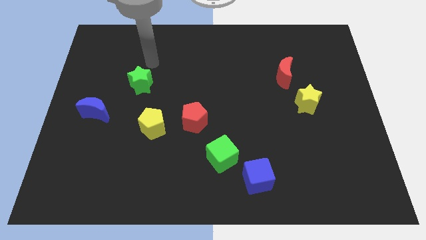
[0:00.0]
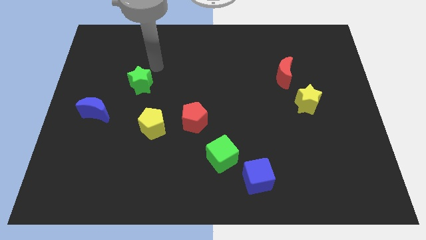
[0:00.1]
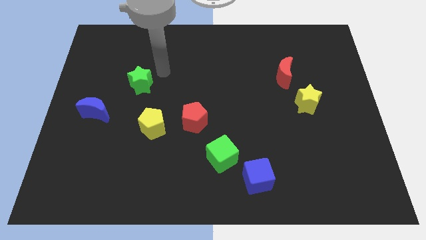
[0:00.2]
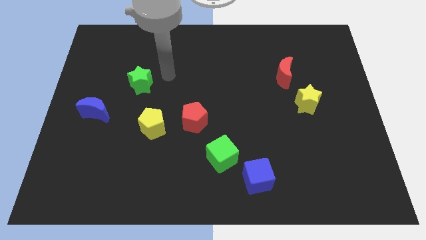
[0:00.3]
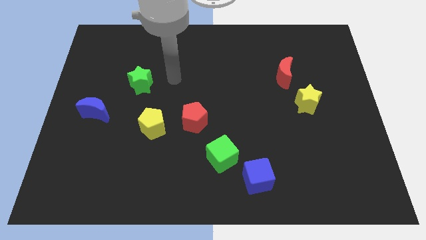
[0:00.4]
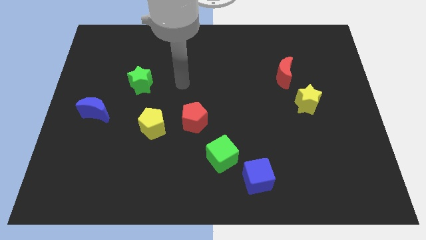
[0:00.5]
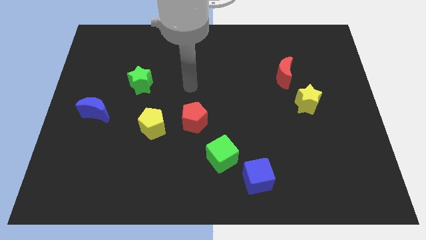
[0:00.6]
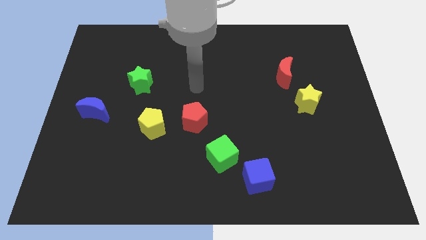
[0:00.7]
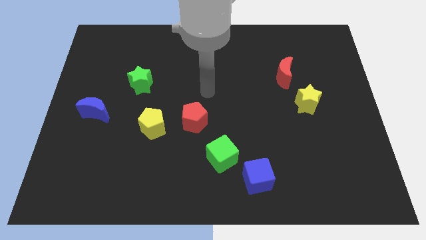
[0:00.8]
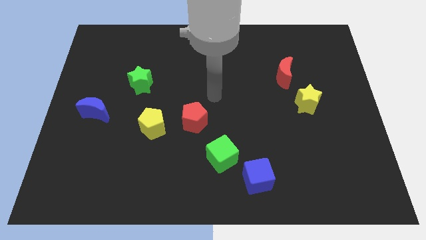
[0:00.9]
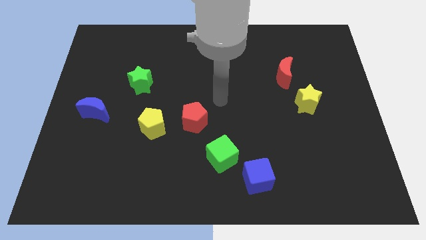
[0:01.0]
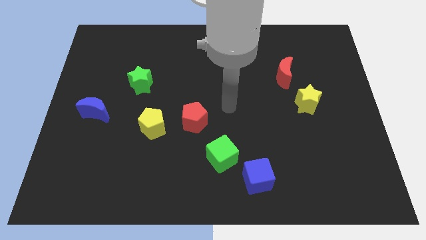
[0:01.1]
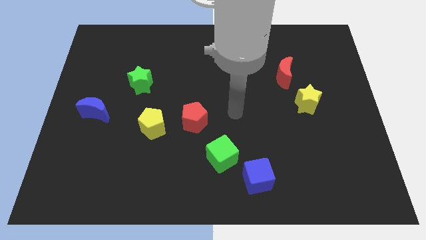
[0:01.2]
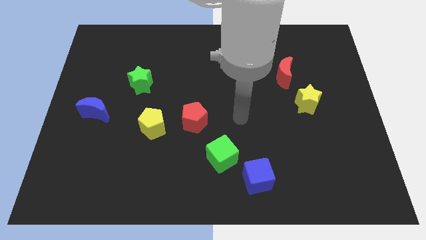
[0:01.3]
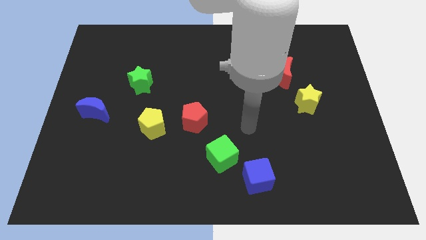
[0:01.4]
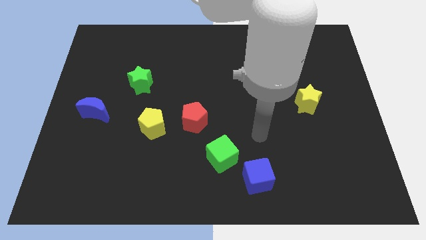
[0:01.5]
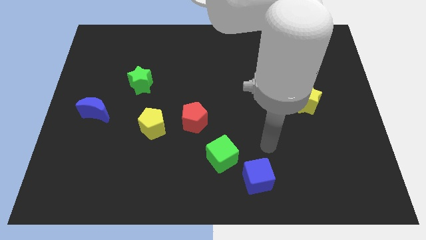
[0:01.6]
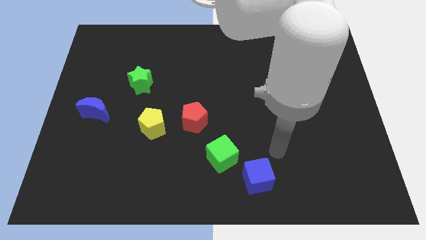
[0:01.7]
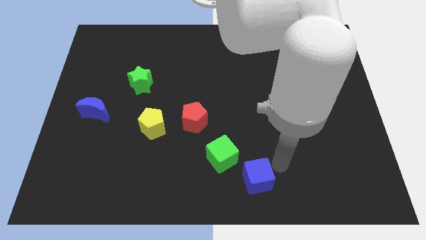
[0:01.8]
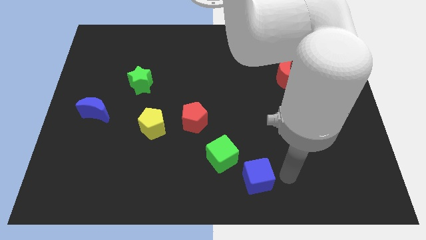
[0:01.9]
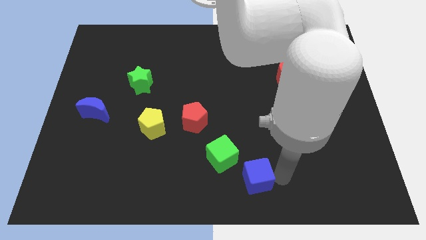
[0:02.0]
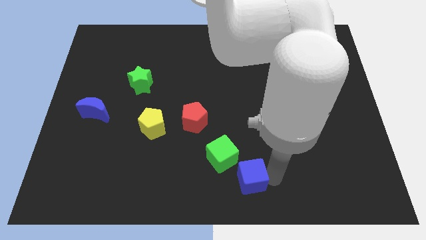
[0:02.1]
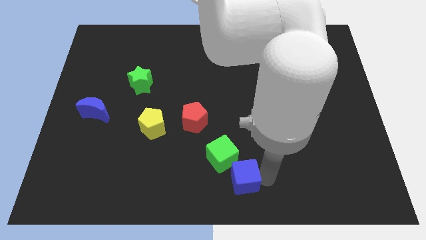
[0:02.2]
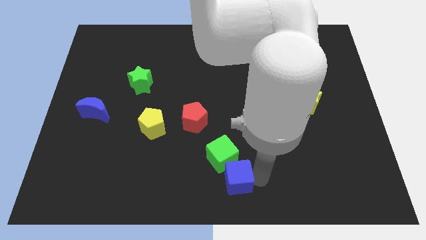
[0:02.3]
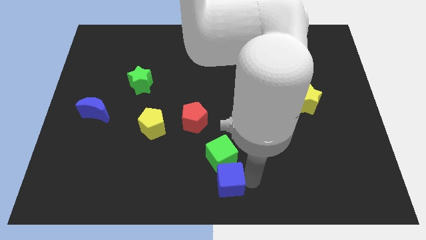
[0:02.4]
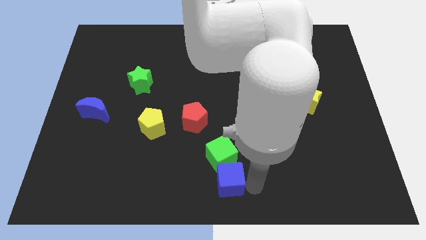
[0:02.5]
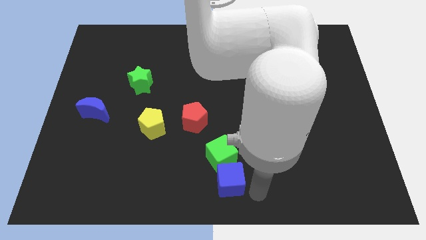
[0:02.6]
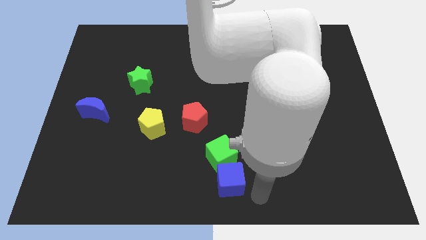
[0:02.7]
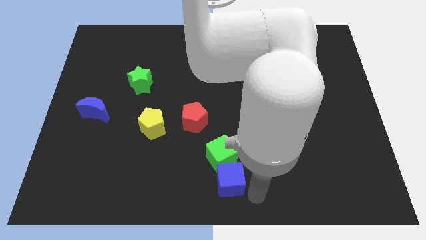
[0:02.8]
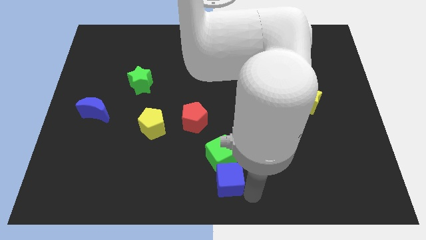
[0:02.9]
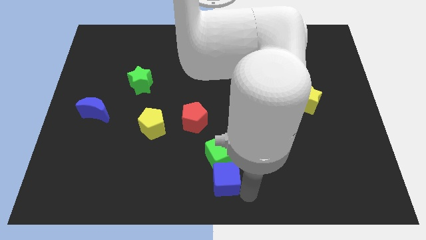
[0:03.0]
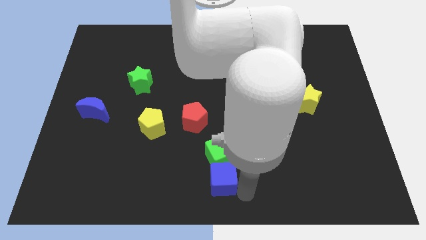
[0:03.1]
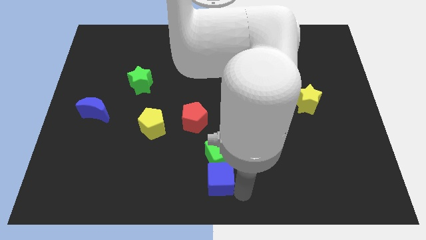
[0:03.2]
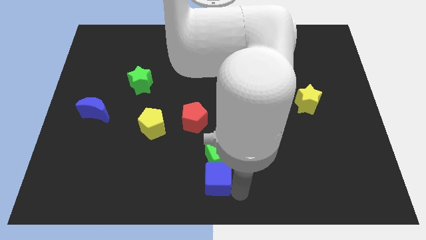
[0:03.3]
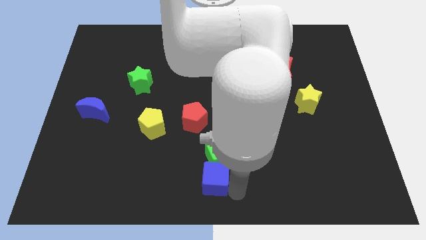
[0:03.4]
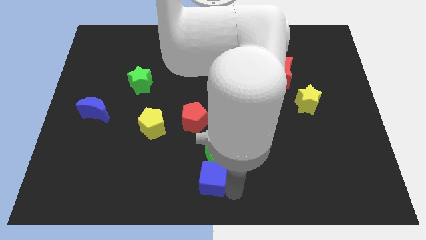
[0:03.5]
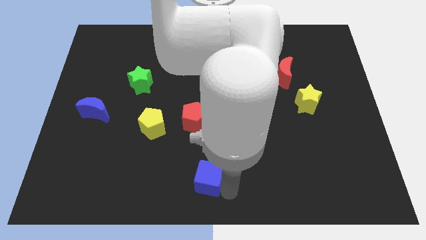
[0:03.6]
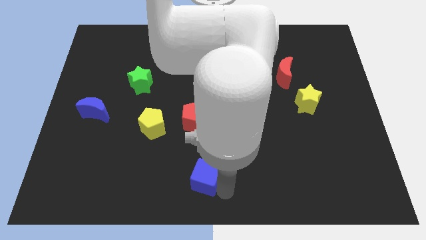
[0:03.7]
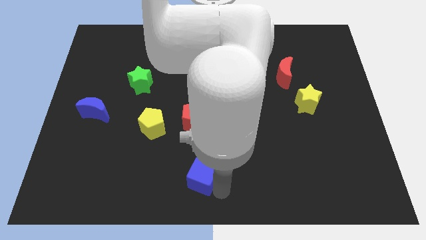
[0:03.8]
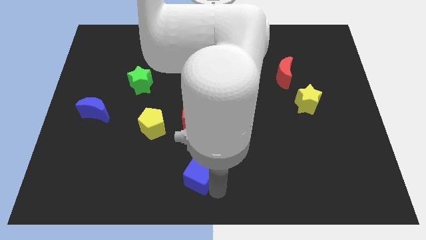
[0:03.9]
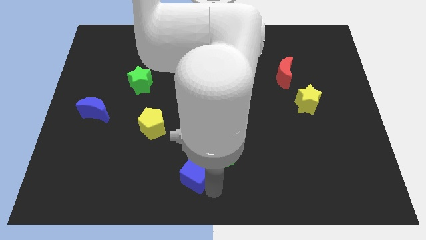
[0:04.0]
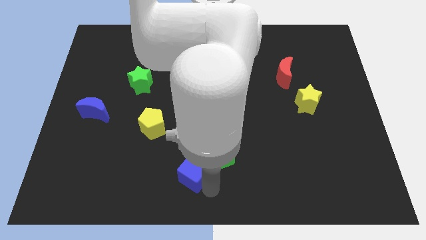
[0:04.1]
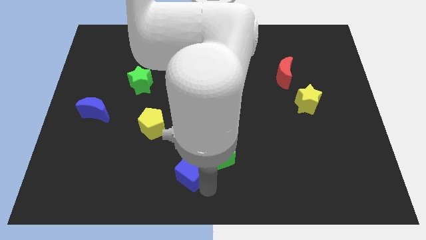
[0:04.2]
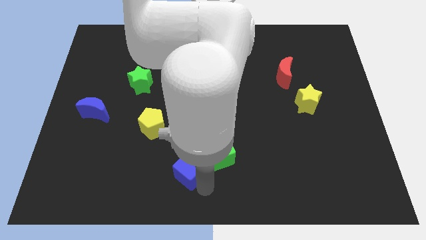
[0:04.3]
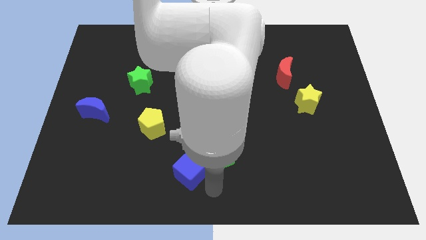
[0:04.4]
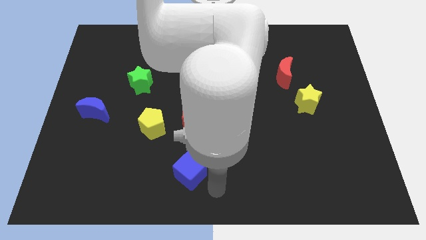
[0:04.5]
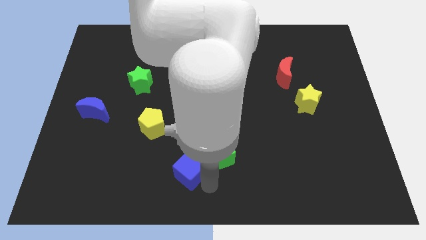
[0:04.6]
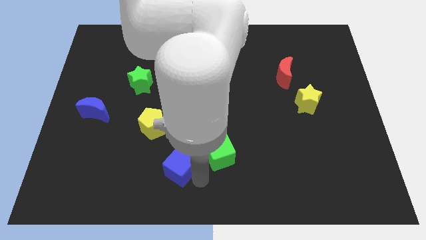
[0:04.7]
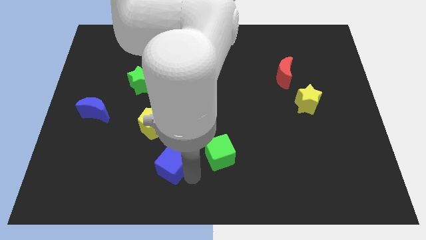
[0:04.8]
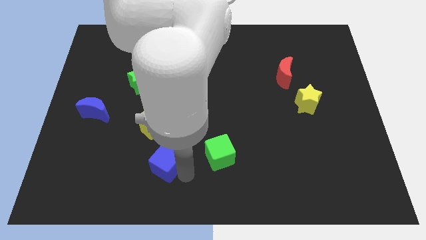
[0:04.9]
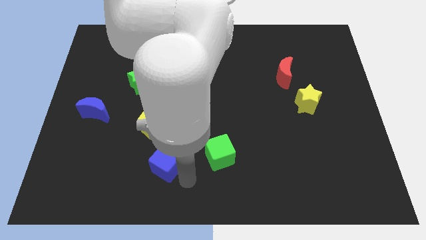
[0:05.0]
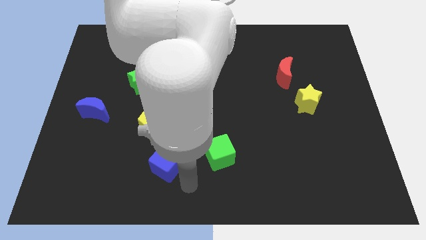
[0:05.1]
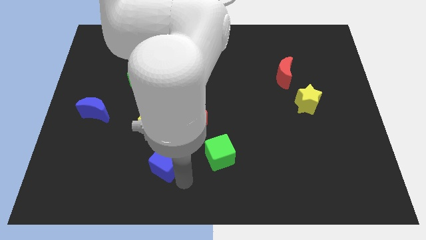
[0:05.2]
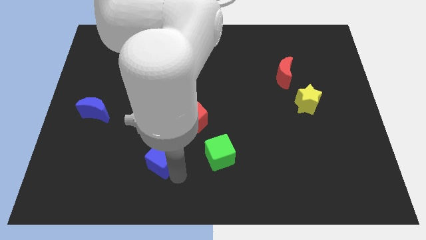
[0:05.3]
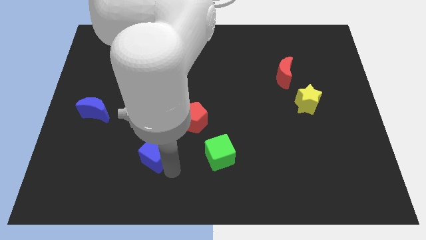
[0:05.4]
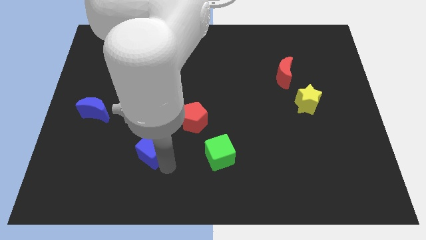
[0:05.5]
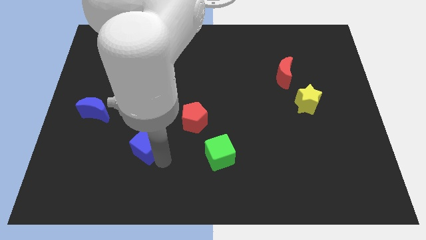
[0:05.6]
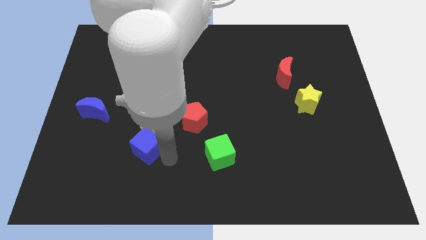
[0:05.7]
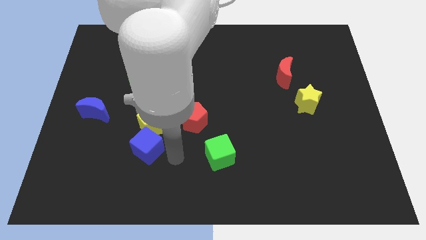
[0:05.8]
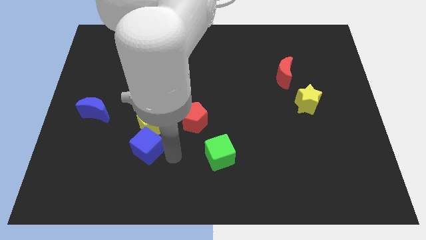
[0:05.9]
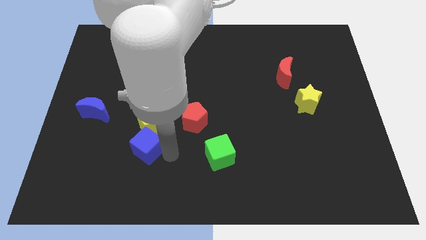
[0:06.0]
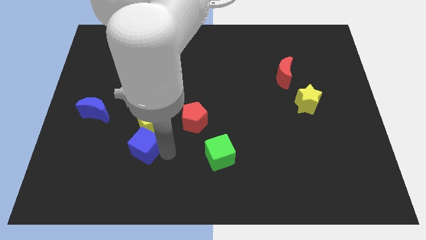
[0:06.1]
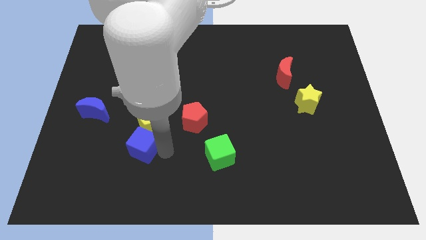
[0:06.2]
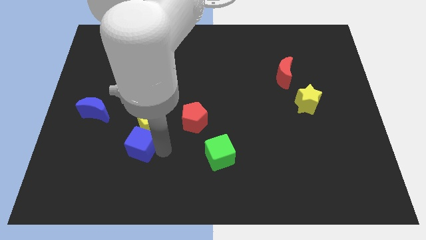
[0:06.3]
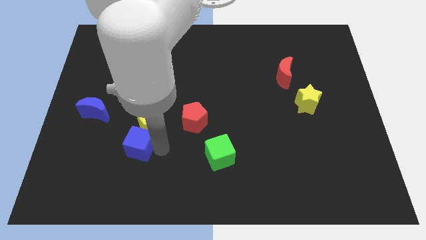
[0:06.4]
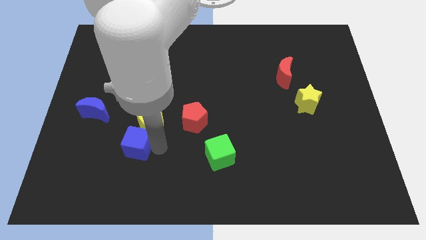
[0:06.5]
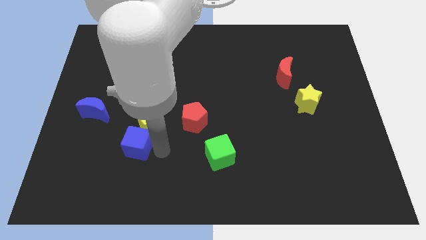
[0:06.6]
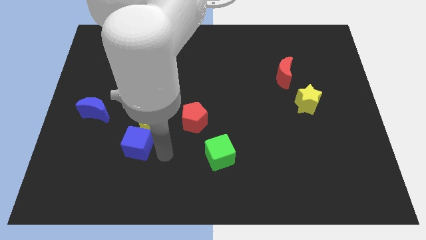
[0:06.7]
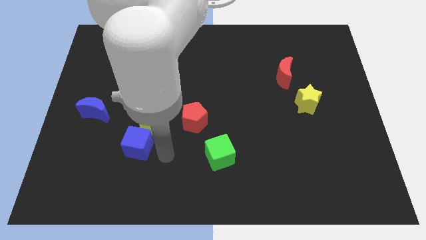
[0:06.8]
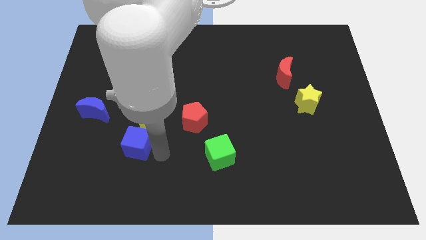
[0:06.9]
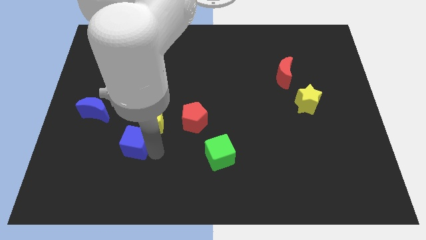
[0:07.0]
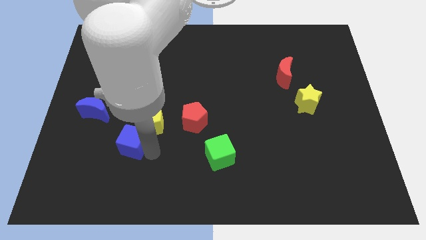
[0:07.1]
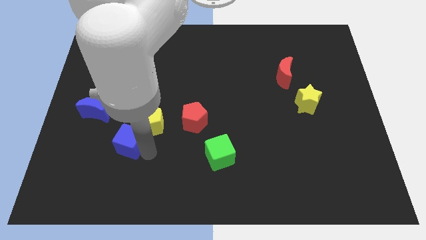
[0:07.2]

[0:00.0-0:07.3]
push the blue cube to the bottom right of the blue moon

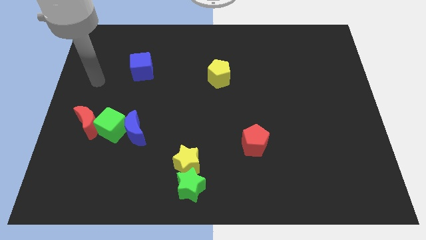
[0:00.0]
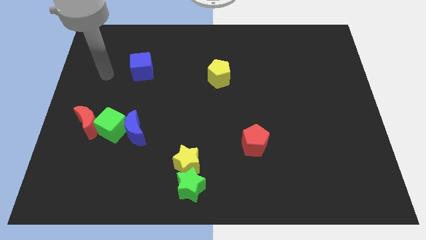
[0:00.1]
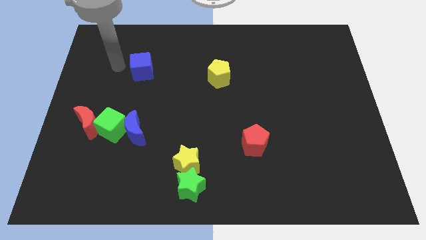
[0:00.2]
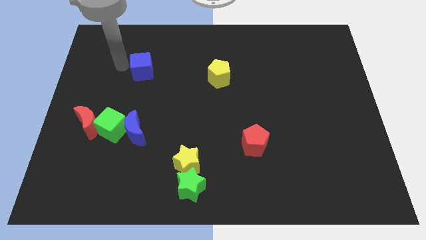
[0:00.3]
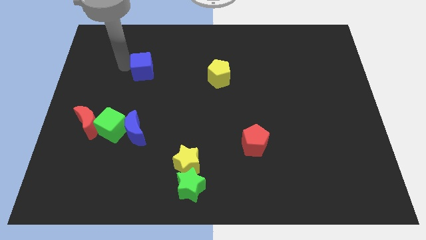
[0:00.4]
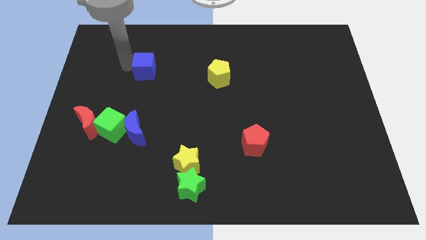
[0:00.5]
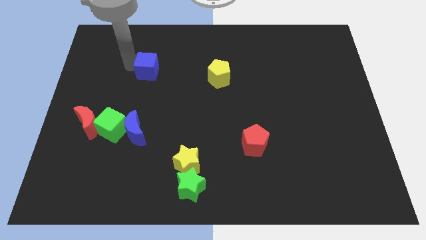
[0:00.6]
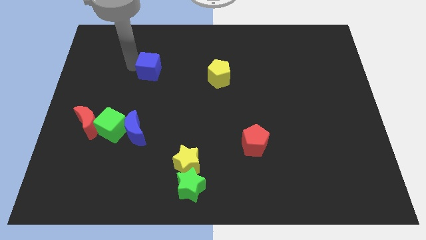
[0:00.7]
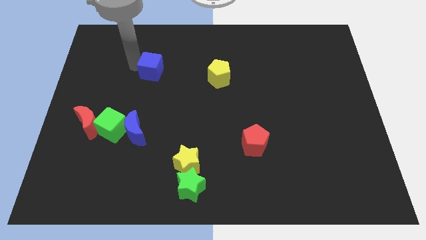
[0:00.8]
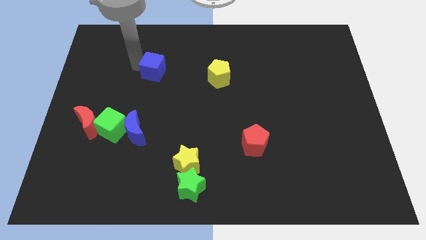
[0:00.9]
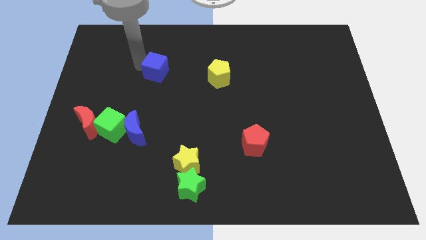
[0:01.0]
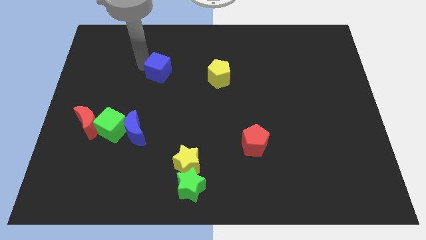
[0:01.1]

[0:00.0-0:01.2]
push the blue cube to the left side of the yellow pentagon
